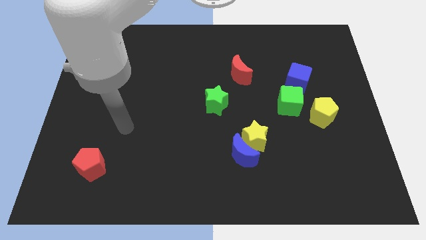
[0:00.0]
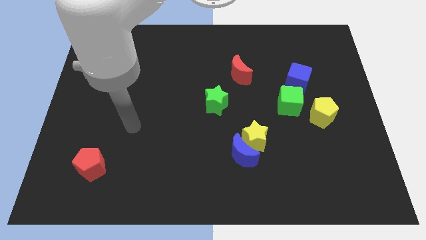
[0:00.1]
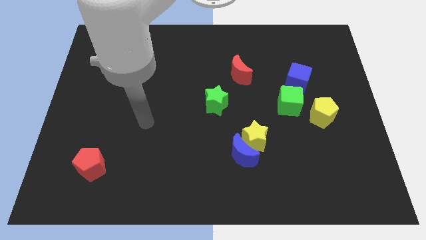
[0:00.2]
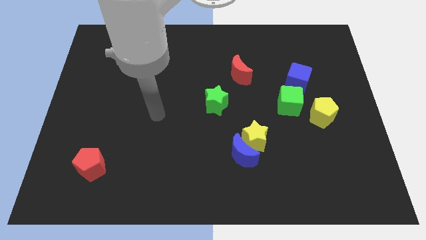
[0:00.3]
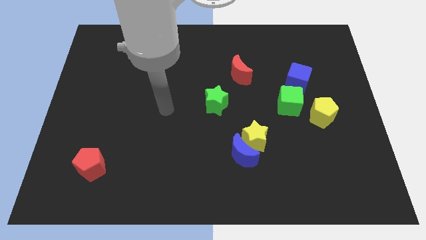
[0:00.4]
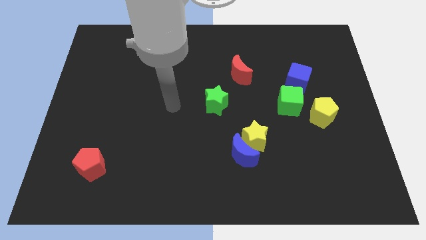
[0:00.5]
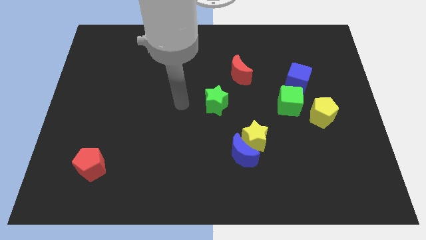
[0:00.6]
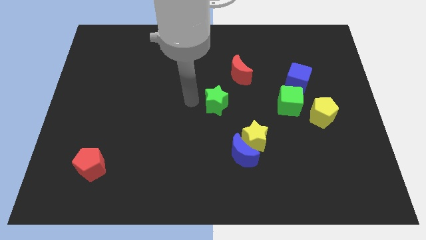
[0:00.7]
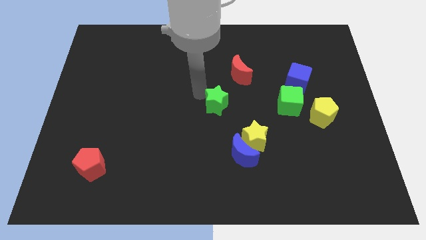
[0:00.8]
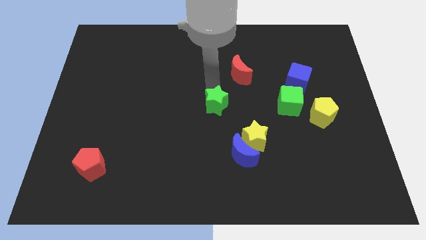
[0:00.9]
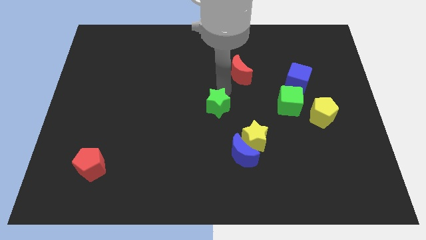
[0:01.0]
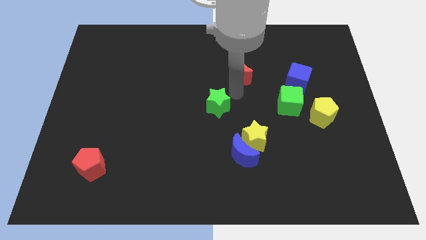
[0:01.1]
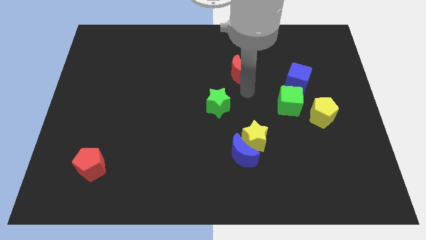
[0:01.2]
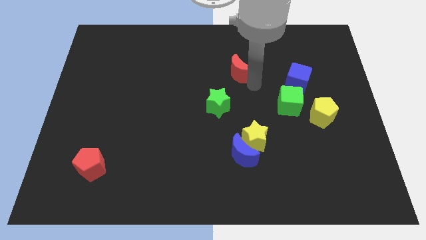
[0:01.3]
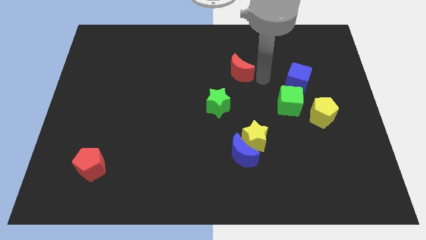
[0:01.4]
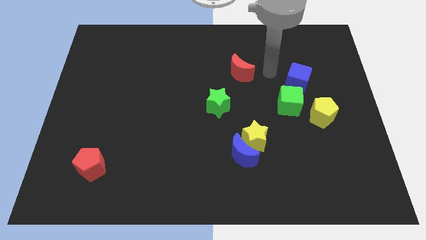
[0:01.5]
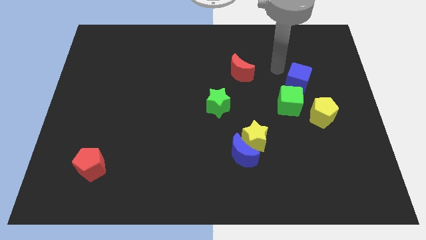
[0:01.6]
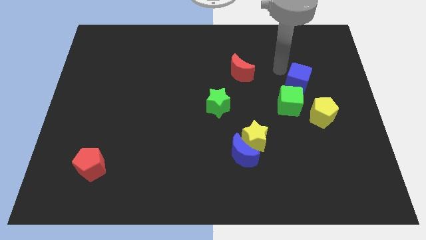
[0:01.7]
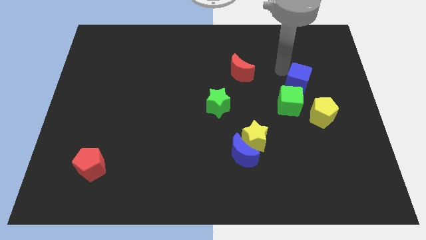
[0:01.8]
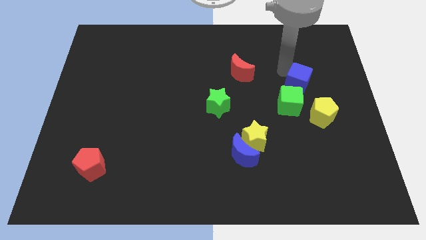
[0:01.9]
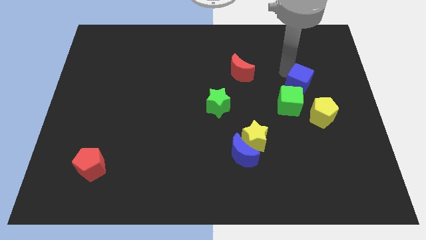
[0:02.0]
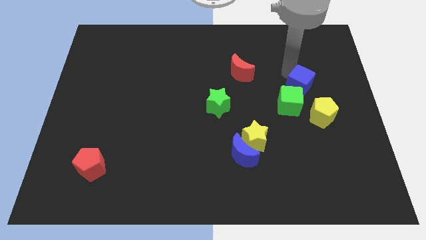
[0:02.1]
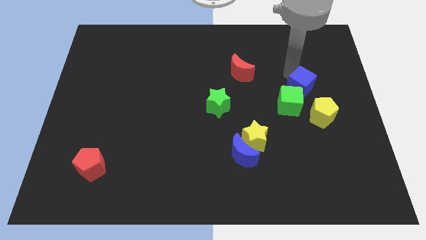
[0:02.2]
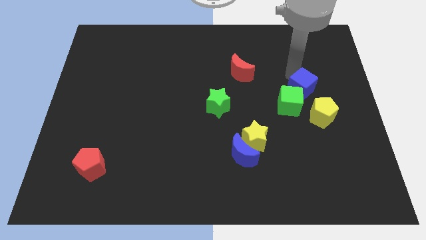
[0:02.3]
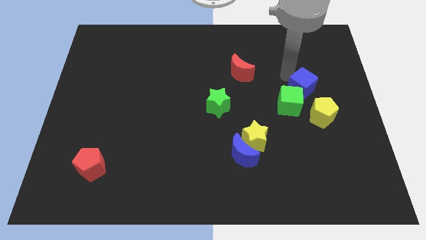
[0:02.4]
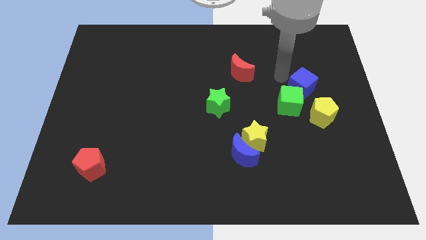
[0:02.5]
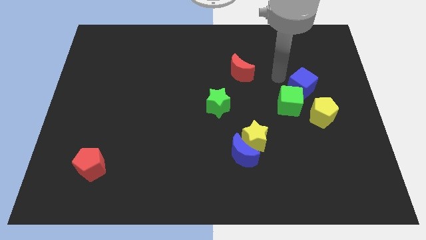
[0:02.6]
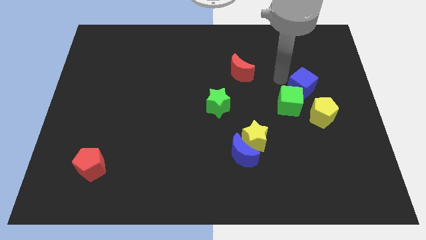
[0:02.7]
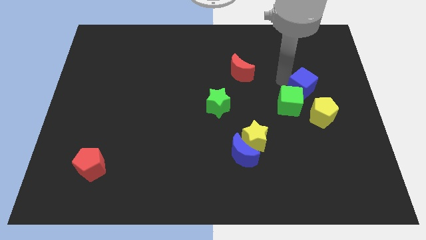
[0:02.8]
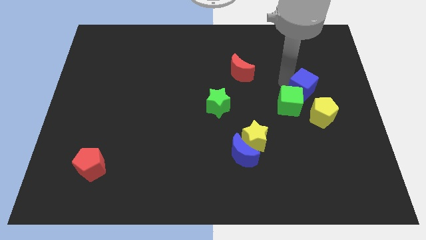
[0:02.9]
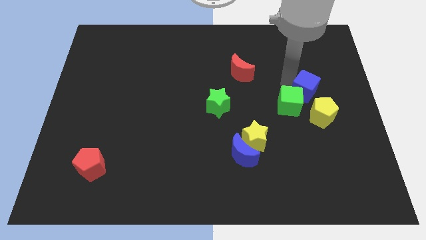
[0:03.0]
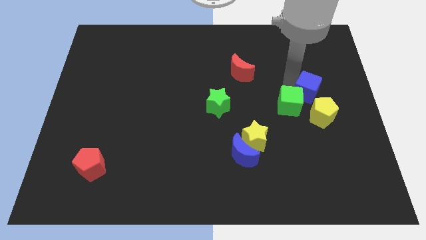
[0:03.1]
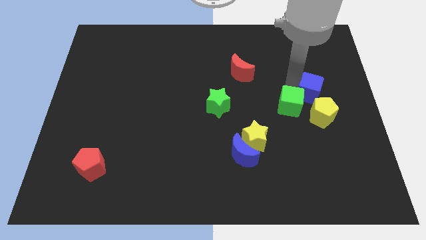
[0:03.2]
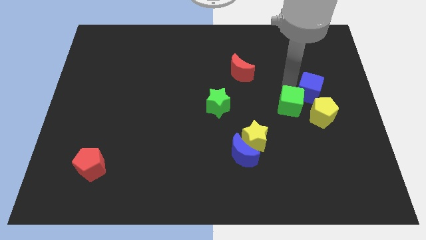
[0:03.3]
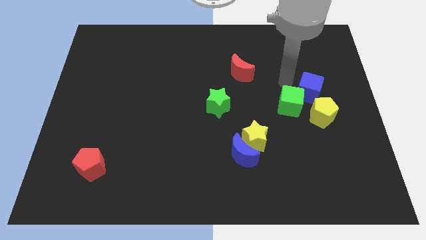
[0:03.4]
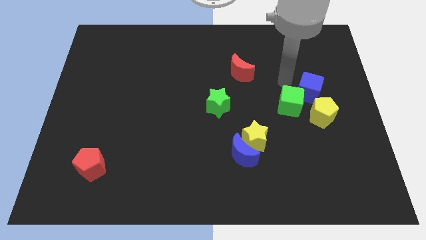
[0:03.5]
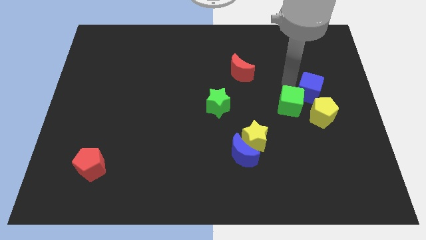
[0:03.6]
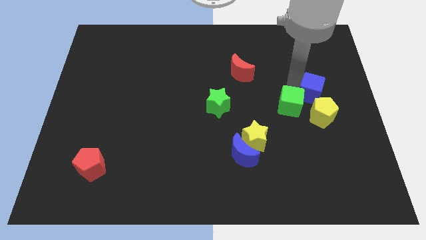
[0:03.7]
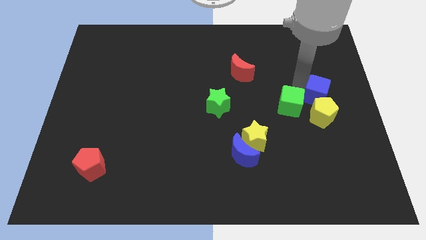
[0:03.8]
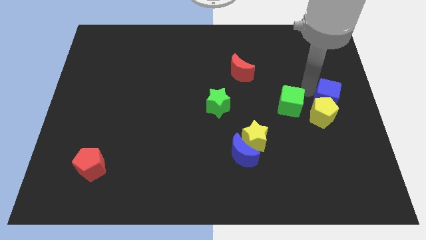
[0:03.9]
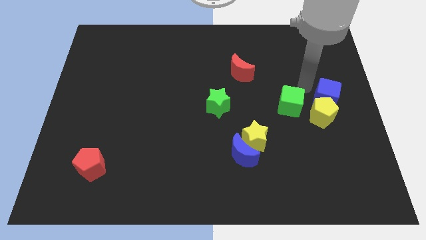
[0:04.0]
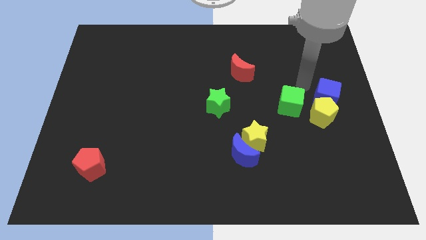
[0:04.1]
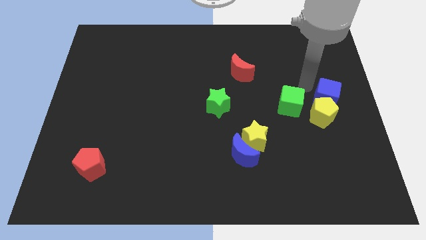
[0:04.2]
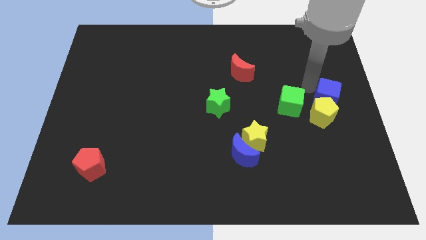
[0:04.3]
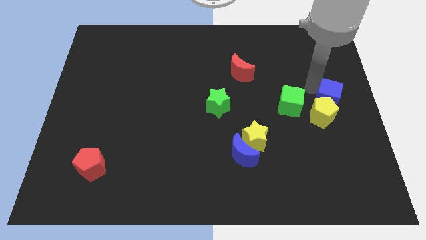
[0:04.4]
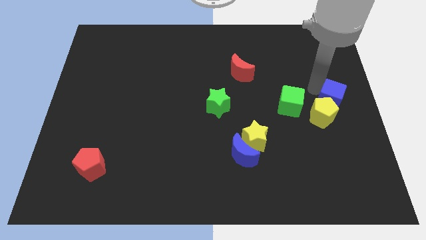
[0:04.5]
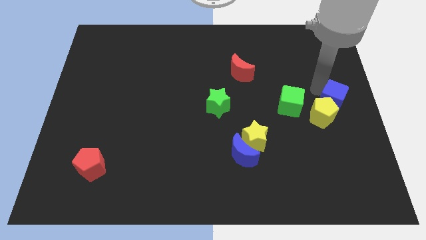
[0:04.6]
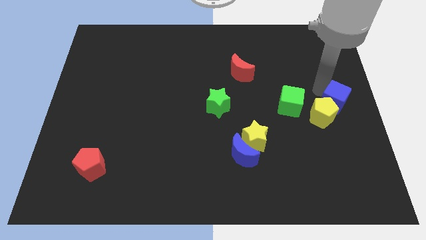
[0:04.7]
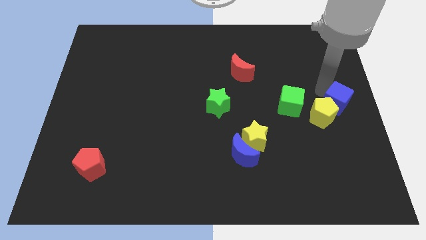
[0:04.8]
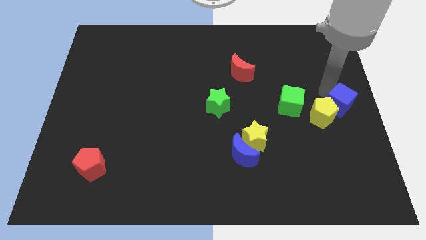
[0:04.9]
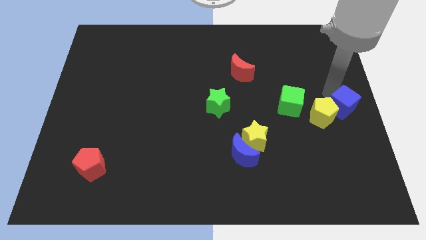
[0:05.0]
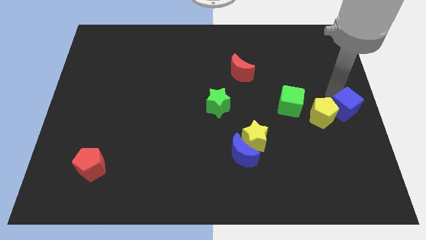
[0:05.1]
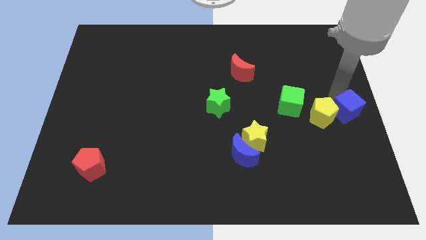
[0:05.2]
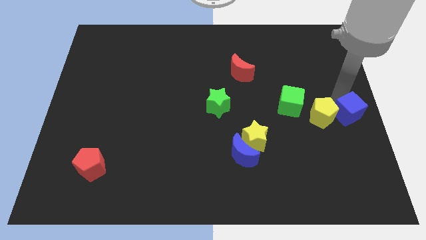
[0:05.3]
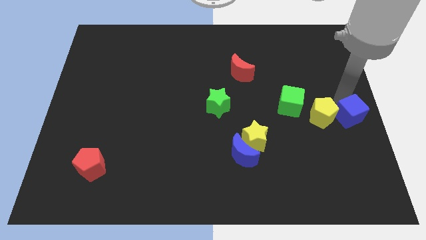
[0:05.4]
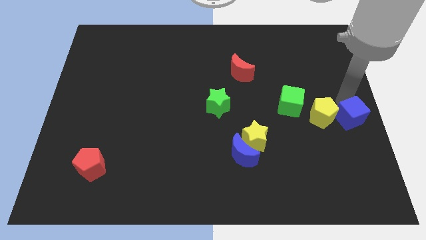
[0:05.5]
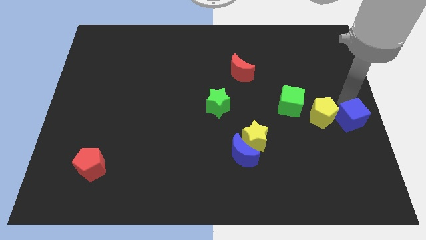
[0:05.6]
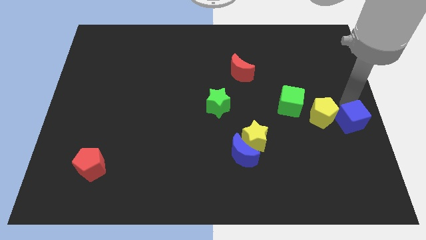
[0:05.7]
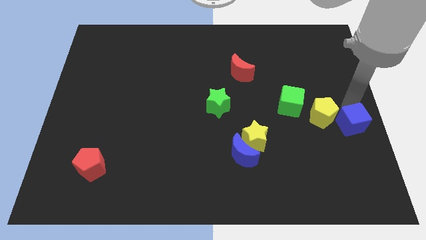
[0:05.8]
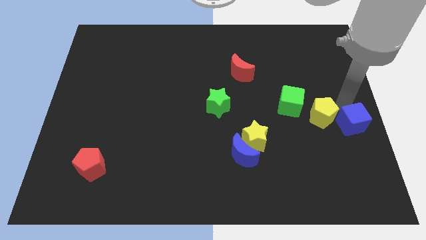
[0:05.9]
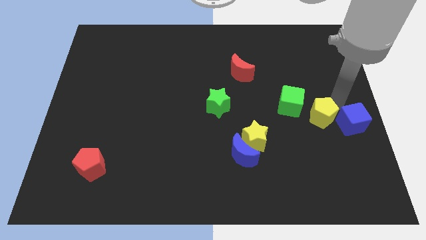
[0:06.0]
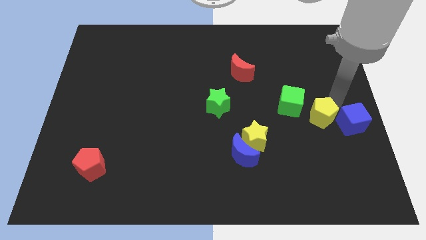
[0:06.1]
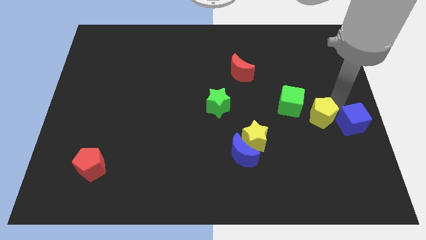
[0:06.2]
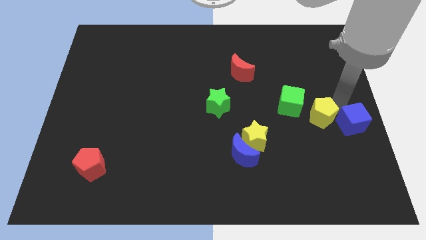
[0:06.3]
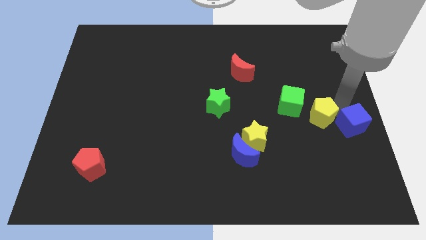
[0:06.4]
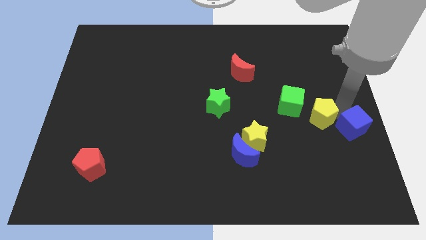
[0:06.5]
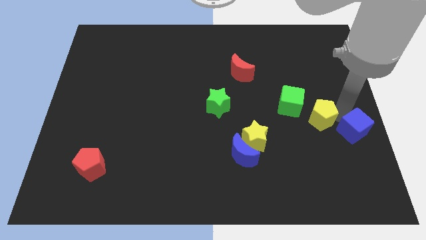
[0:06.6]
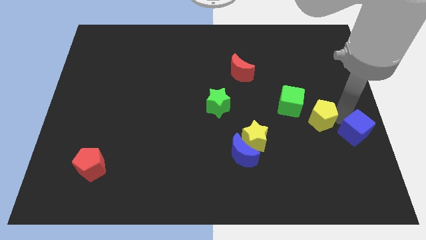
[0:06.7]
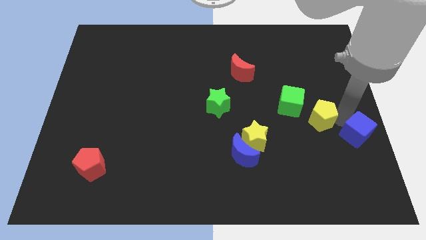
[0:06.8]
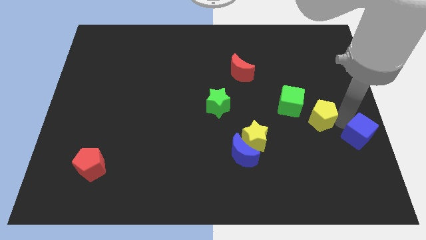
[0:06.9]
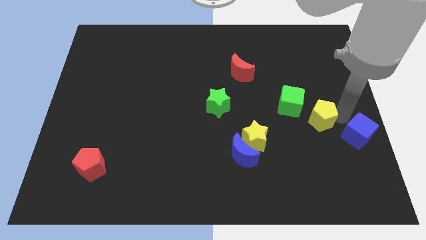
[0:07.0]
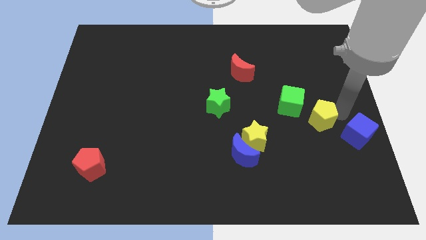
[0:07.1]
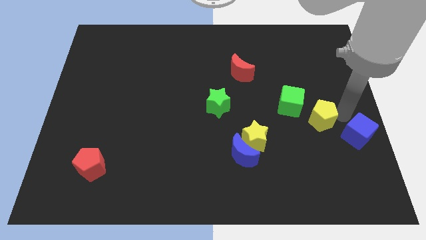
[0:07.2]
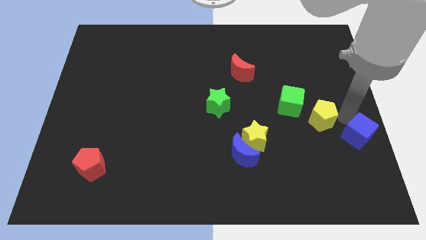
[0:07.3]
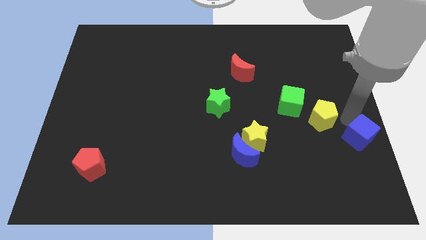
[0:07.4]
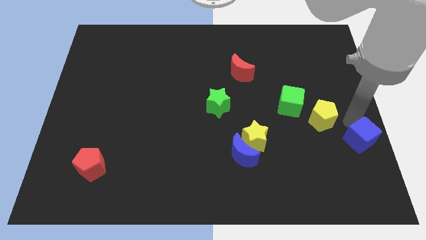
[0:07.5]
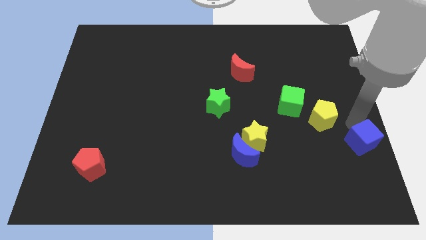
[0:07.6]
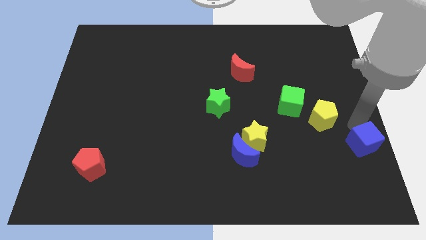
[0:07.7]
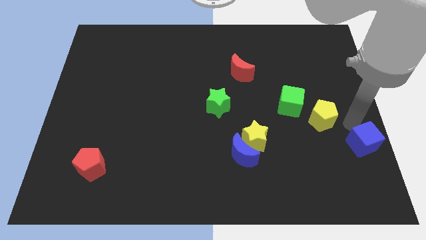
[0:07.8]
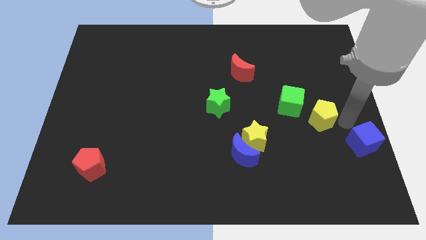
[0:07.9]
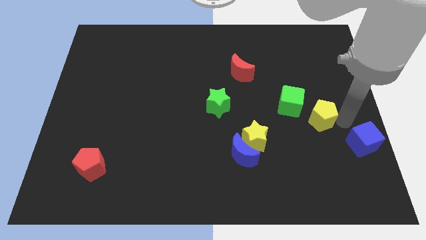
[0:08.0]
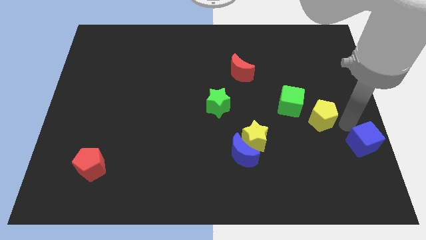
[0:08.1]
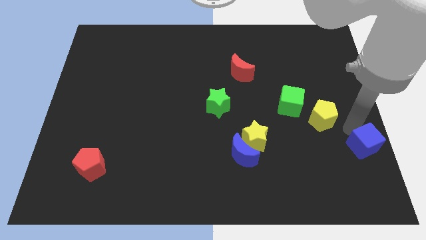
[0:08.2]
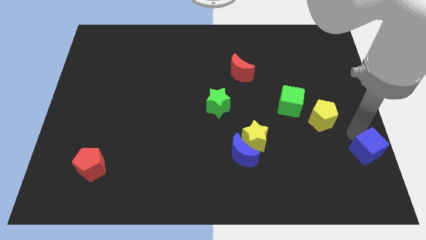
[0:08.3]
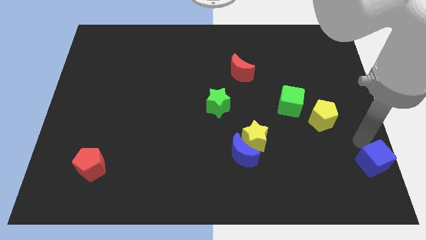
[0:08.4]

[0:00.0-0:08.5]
move the blue cube to the bottom right of the board
